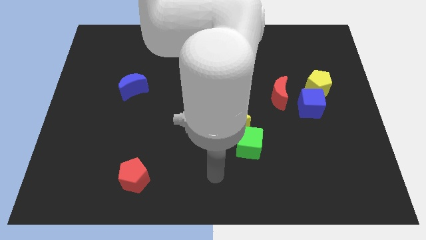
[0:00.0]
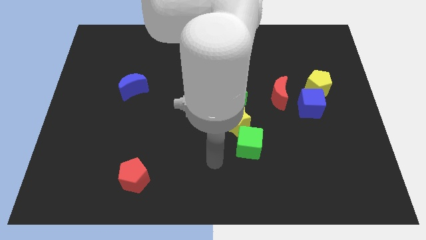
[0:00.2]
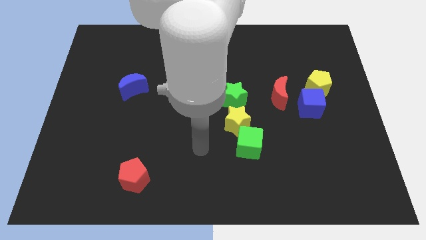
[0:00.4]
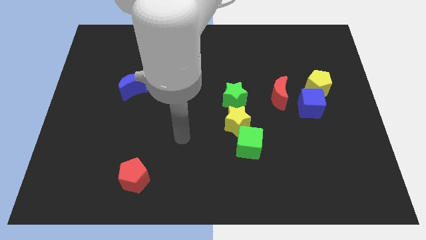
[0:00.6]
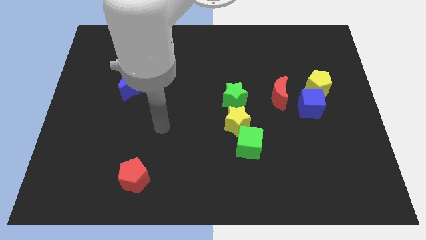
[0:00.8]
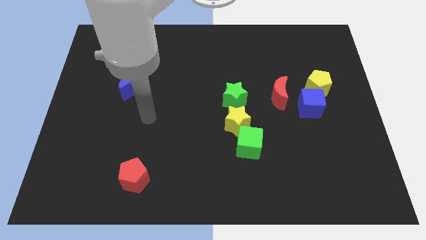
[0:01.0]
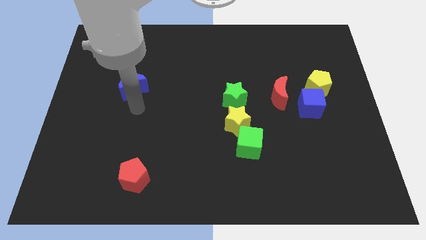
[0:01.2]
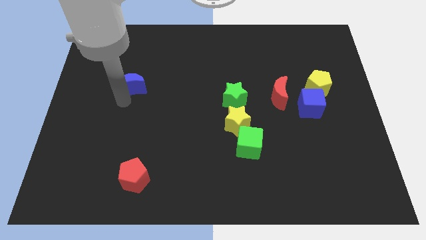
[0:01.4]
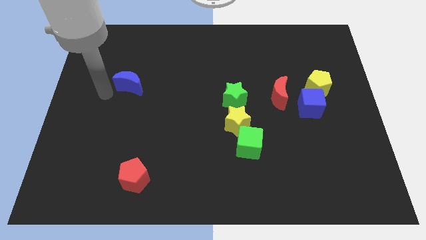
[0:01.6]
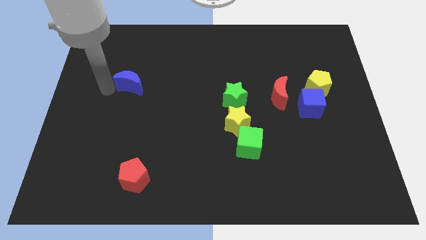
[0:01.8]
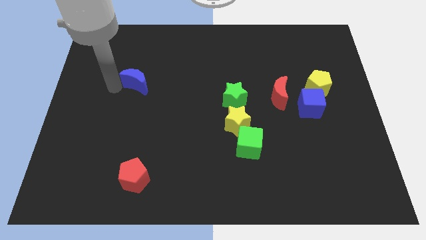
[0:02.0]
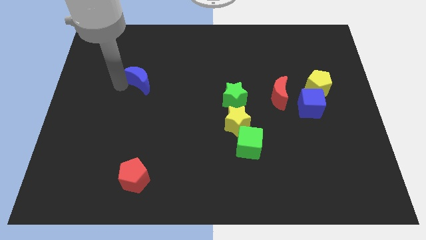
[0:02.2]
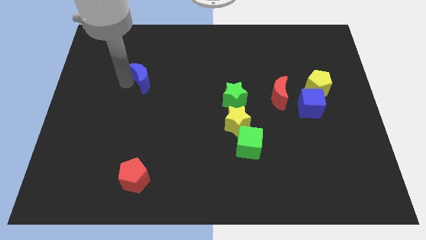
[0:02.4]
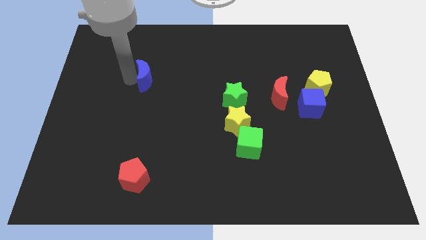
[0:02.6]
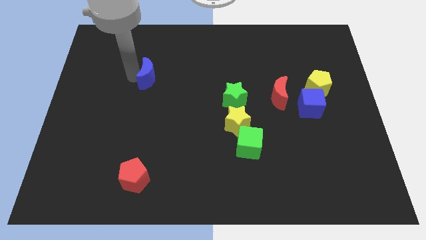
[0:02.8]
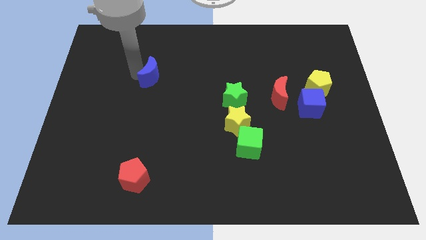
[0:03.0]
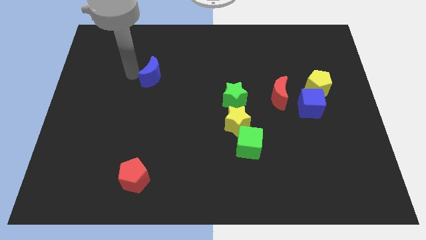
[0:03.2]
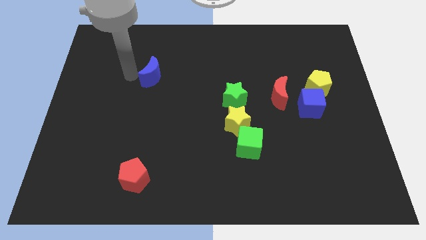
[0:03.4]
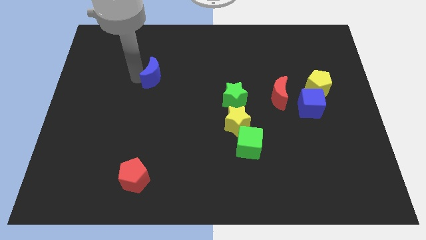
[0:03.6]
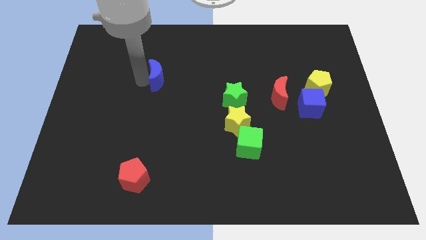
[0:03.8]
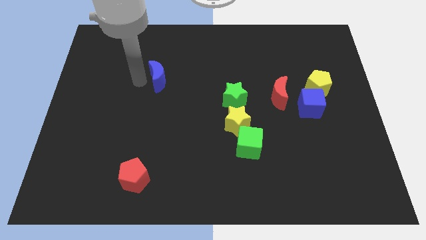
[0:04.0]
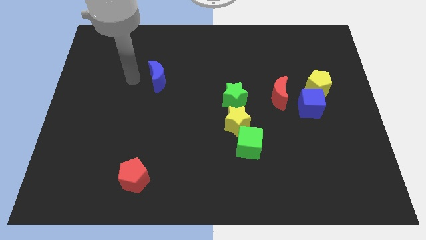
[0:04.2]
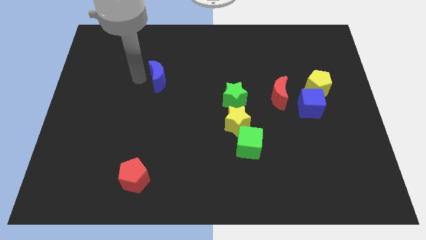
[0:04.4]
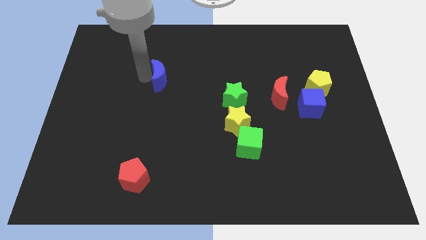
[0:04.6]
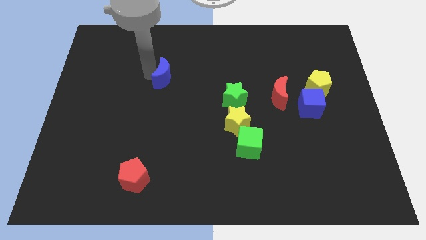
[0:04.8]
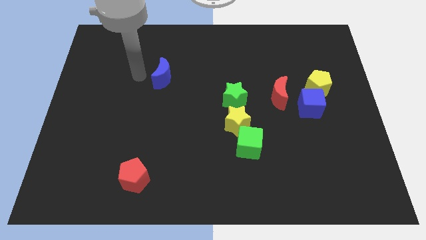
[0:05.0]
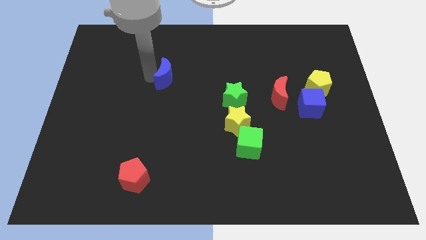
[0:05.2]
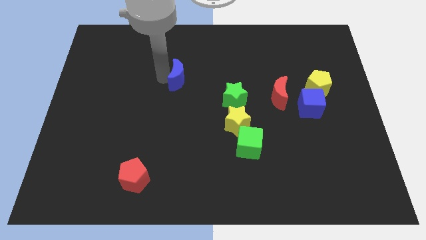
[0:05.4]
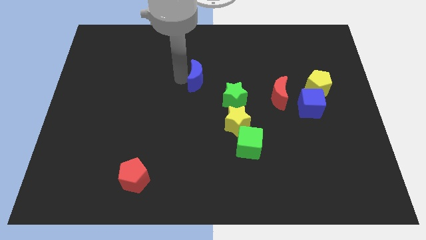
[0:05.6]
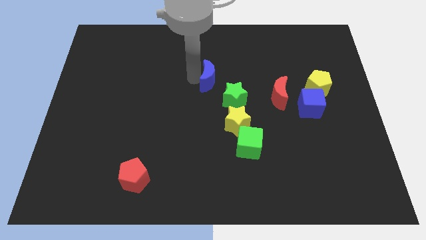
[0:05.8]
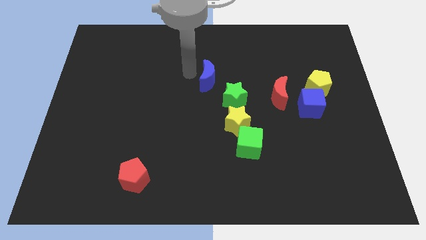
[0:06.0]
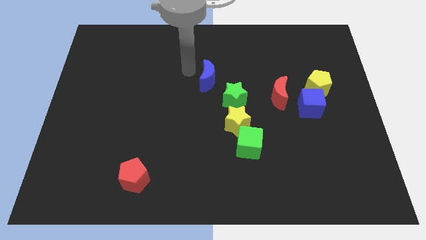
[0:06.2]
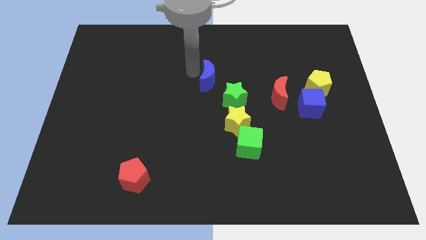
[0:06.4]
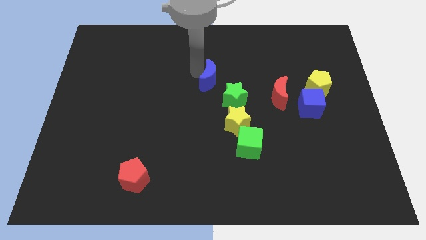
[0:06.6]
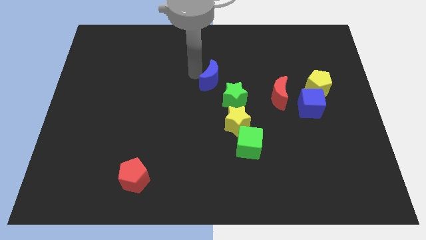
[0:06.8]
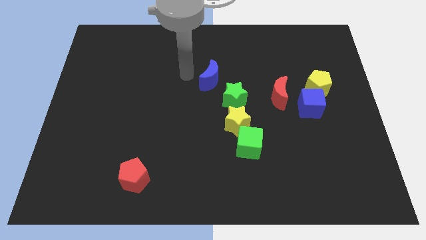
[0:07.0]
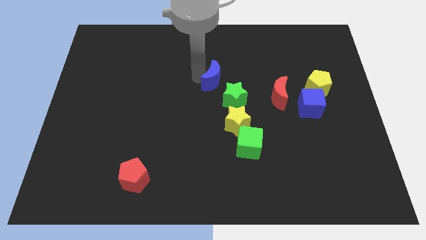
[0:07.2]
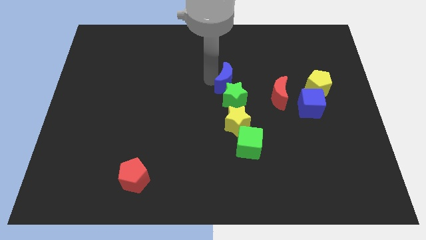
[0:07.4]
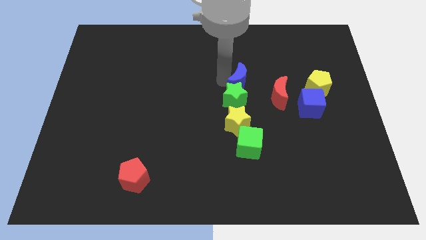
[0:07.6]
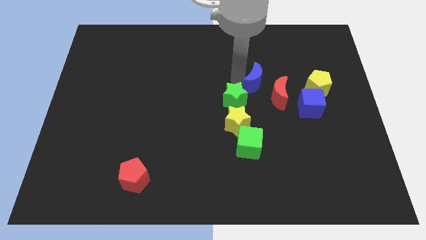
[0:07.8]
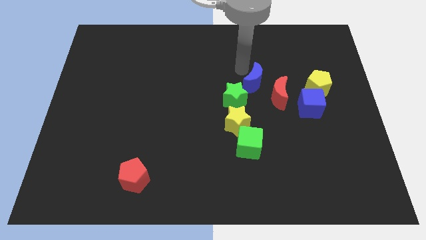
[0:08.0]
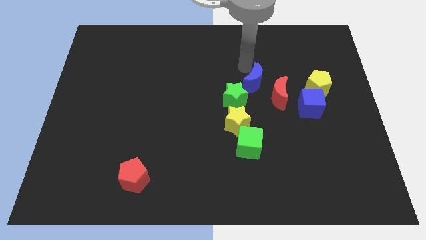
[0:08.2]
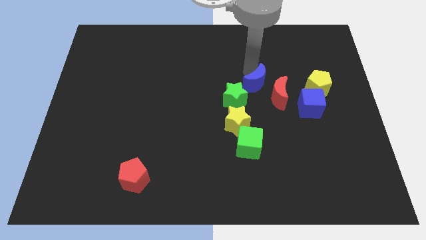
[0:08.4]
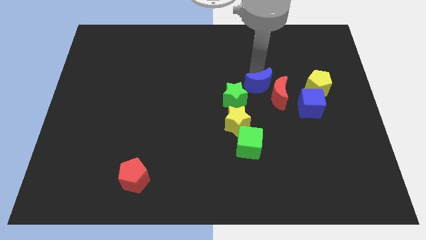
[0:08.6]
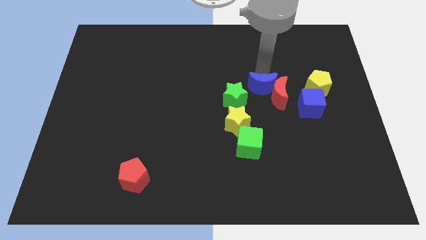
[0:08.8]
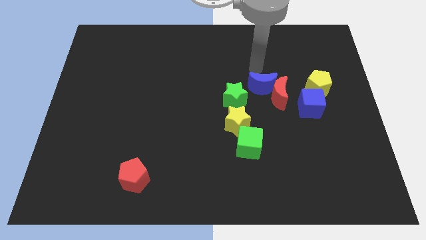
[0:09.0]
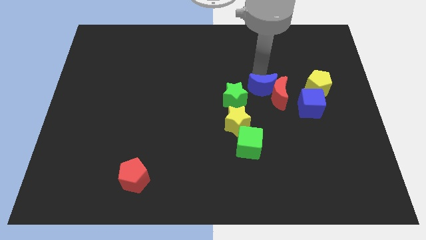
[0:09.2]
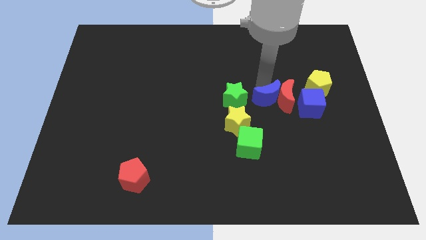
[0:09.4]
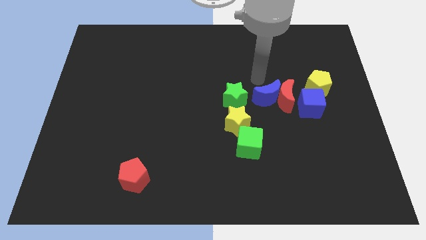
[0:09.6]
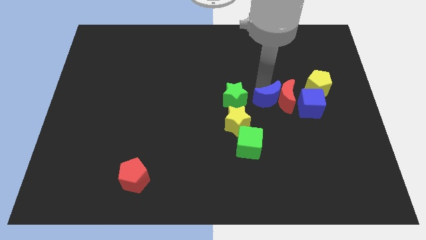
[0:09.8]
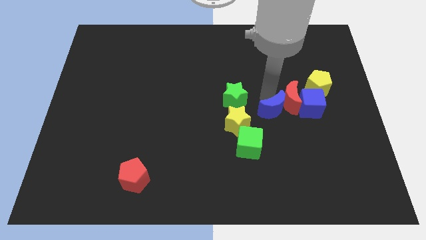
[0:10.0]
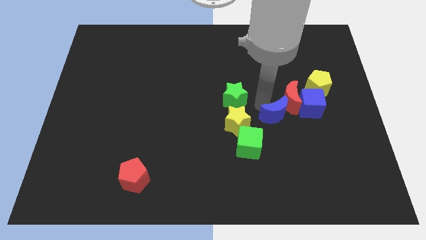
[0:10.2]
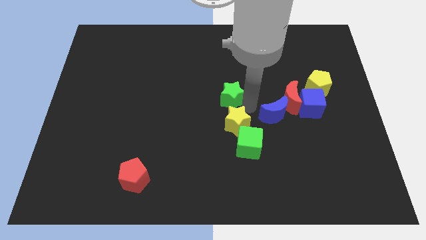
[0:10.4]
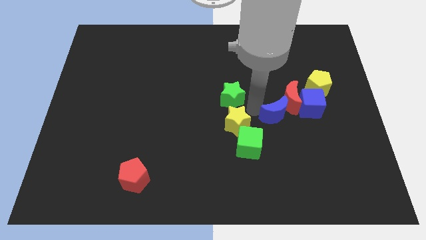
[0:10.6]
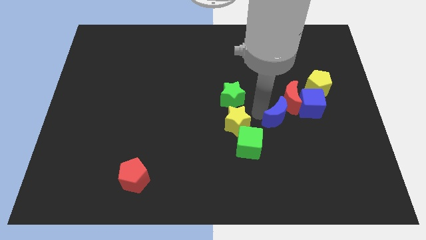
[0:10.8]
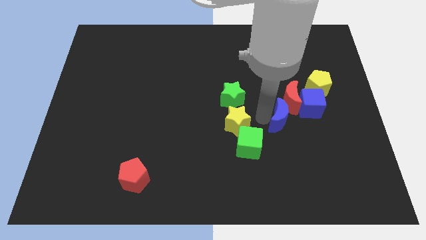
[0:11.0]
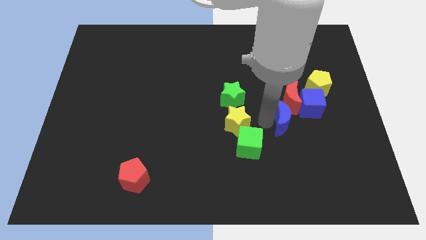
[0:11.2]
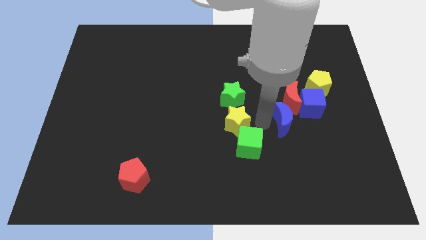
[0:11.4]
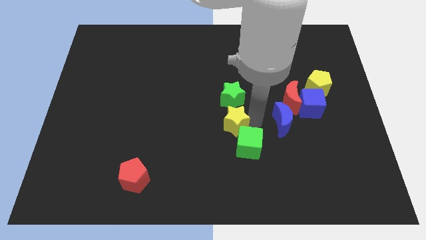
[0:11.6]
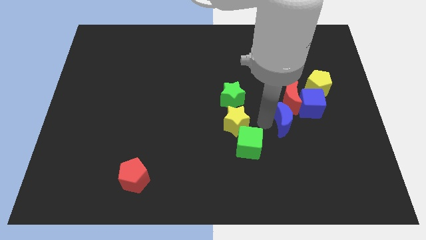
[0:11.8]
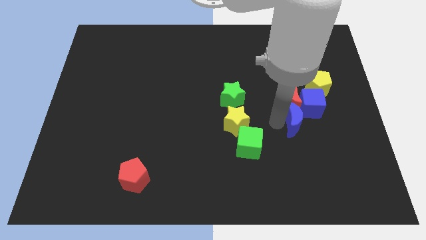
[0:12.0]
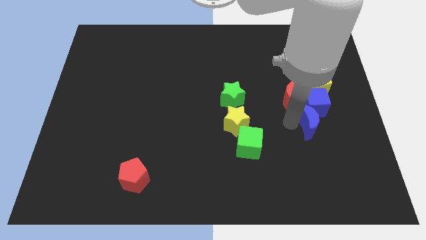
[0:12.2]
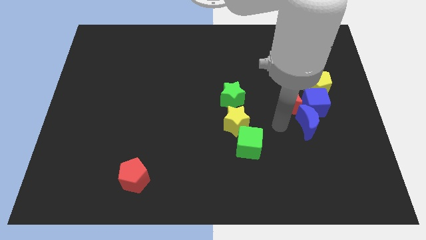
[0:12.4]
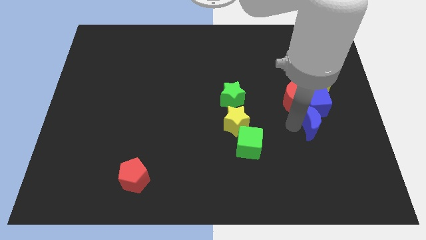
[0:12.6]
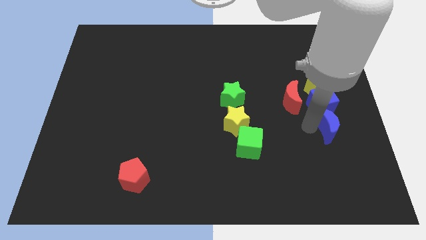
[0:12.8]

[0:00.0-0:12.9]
slide the blue moon to the bottom right of the blue cube

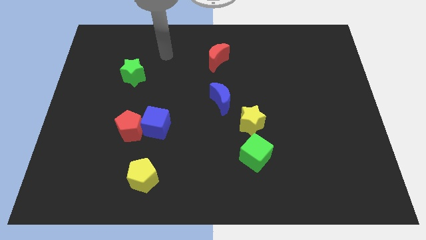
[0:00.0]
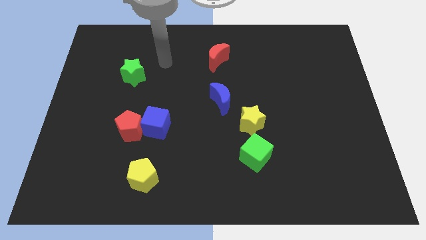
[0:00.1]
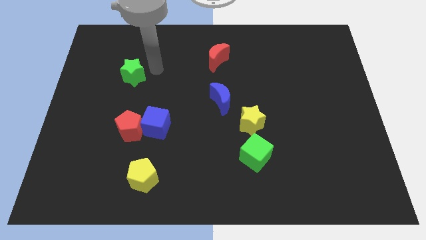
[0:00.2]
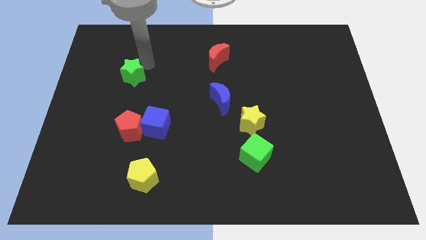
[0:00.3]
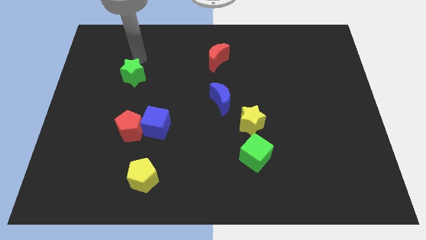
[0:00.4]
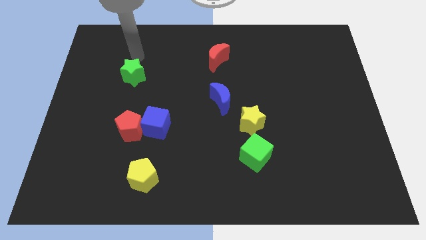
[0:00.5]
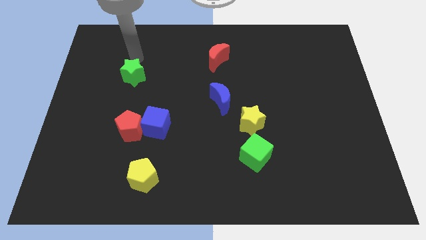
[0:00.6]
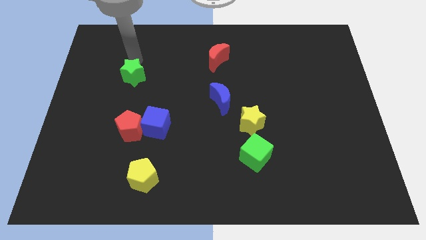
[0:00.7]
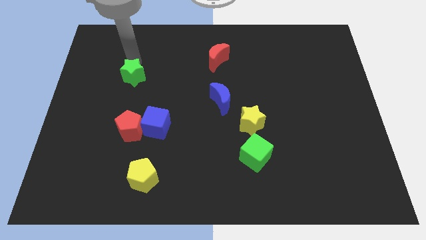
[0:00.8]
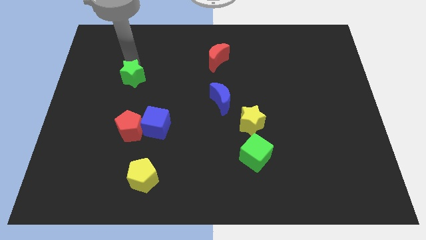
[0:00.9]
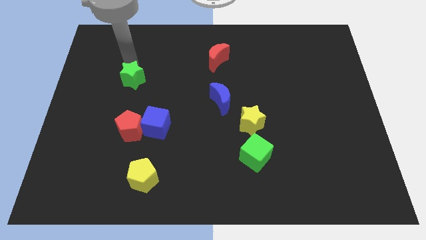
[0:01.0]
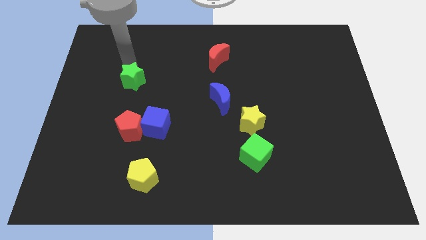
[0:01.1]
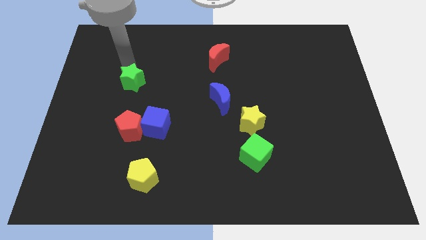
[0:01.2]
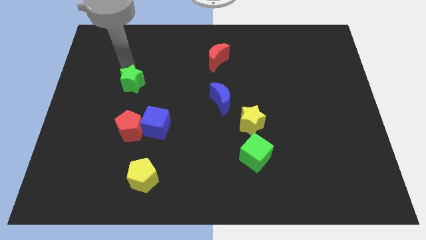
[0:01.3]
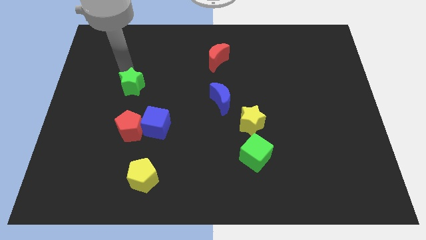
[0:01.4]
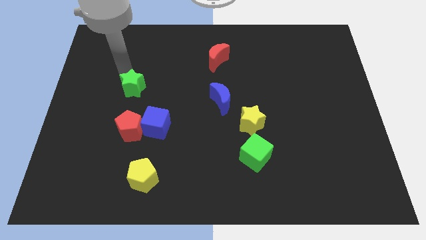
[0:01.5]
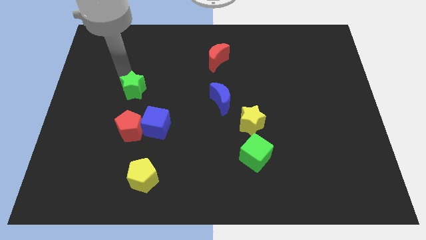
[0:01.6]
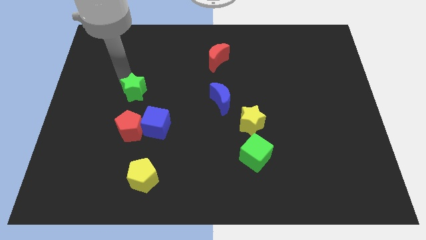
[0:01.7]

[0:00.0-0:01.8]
put the green star to the top left side of the blue cube
